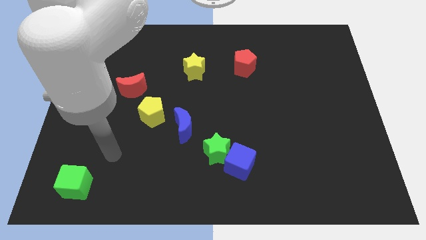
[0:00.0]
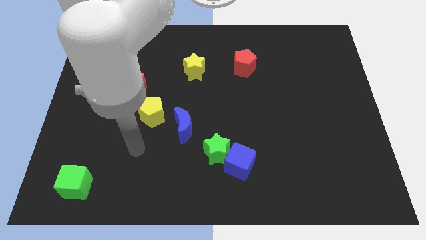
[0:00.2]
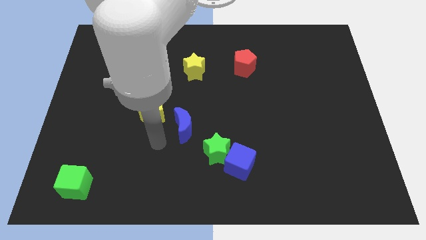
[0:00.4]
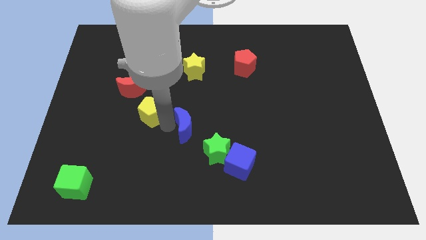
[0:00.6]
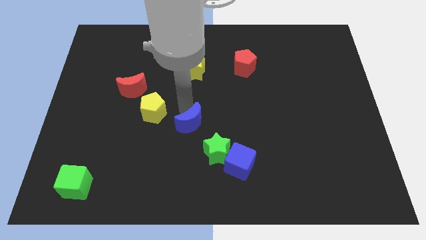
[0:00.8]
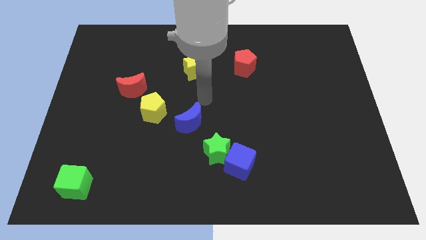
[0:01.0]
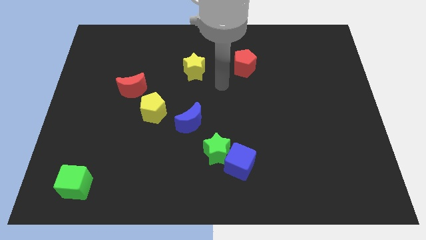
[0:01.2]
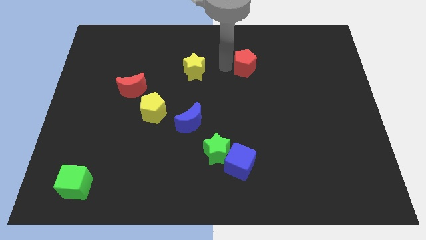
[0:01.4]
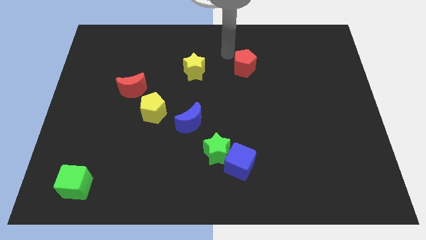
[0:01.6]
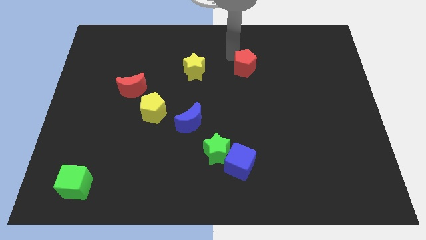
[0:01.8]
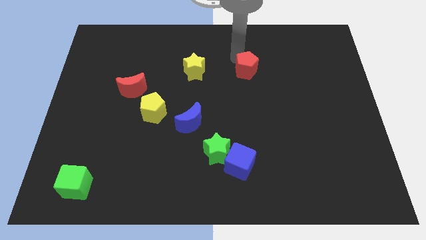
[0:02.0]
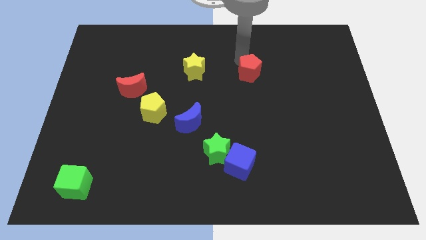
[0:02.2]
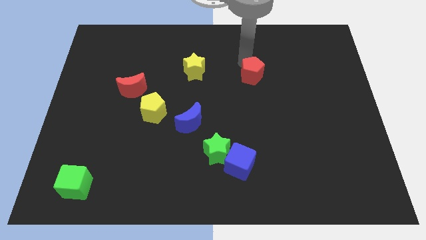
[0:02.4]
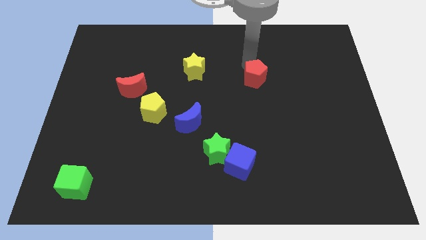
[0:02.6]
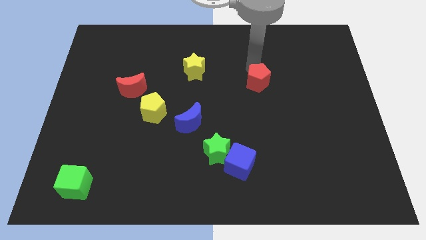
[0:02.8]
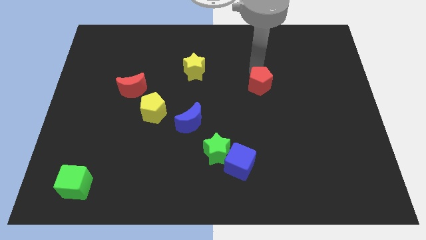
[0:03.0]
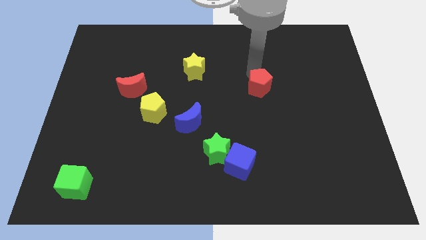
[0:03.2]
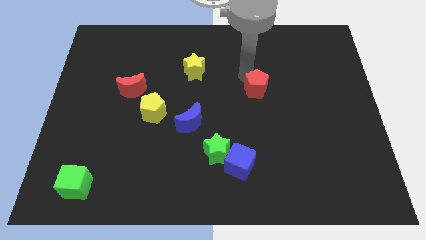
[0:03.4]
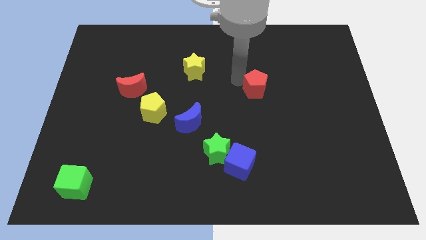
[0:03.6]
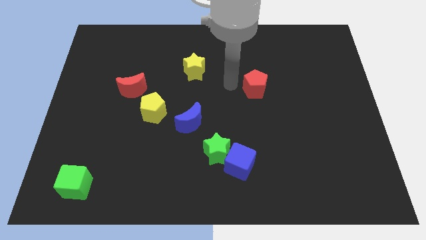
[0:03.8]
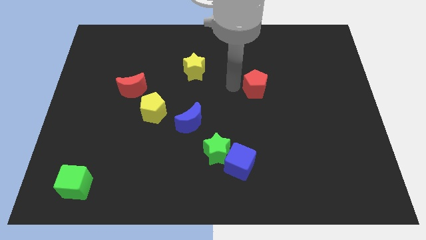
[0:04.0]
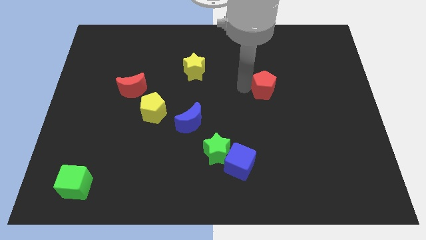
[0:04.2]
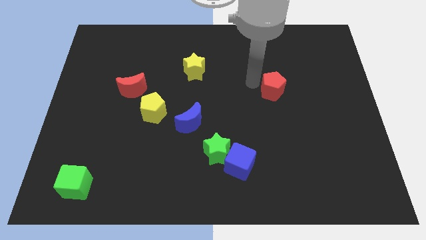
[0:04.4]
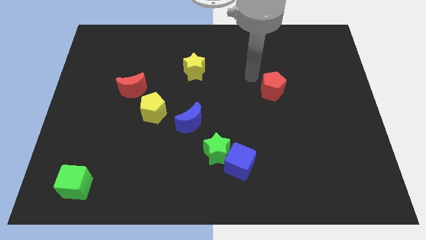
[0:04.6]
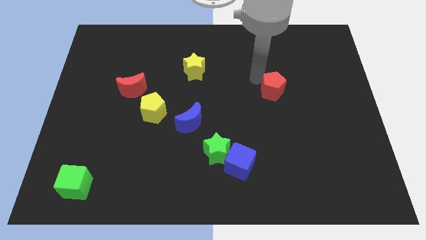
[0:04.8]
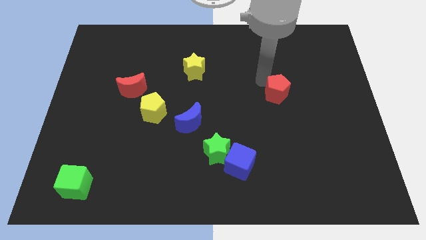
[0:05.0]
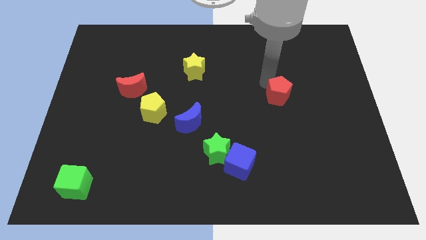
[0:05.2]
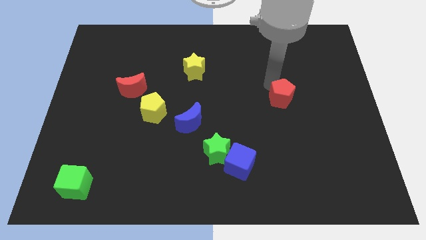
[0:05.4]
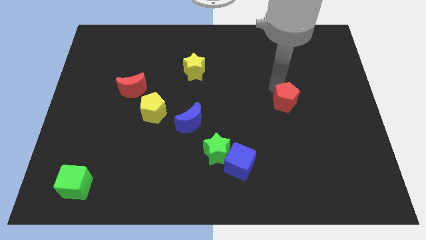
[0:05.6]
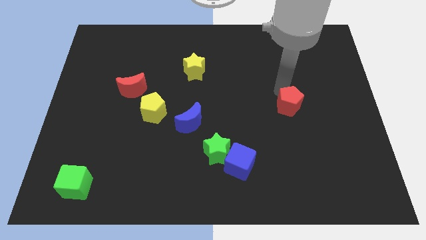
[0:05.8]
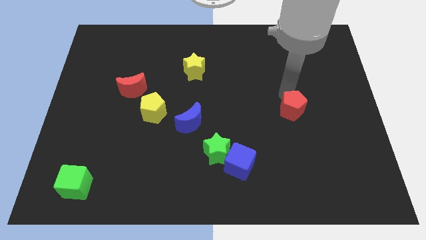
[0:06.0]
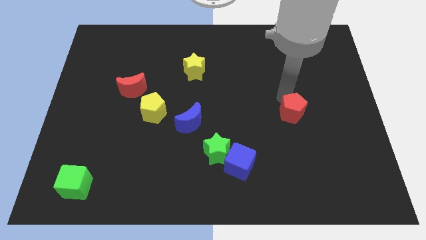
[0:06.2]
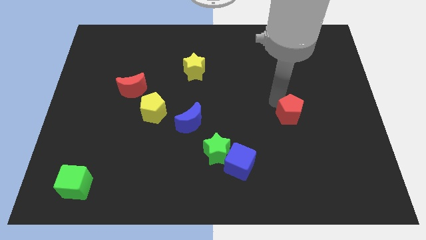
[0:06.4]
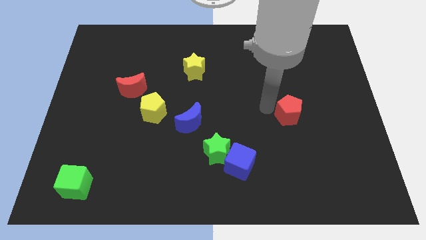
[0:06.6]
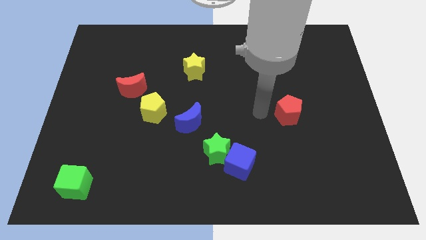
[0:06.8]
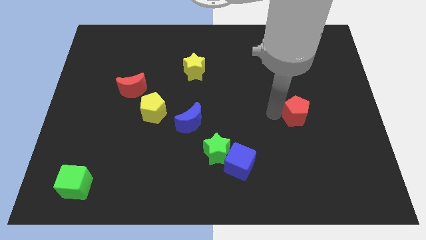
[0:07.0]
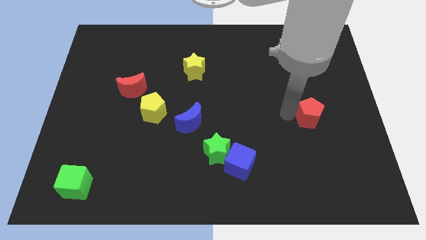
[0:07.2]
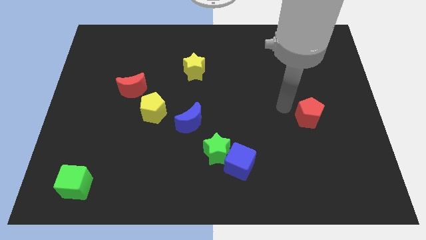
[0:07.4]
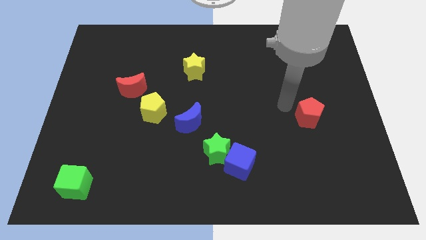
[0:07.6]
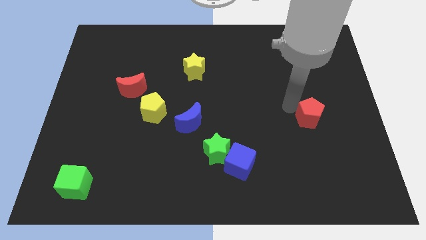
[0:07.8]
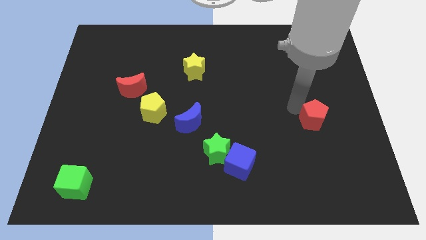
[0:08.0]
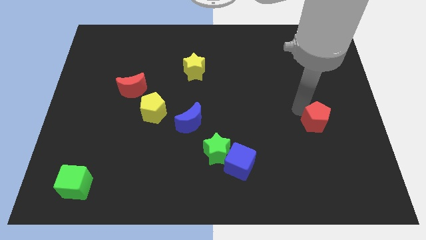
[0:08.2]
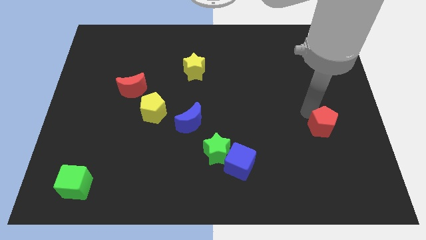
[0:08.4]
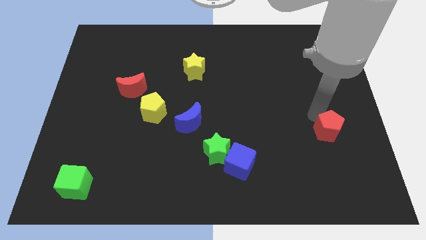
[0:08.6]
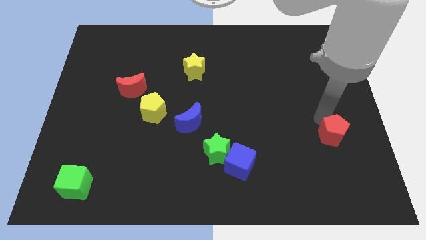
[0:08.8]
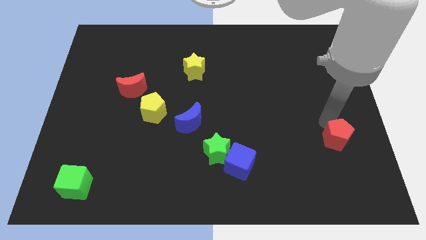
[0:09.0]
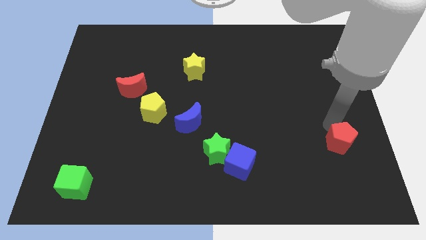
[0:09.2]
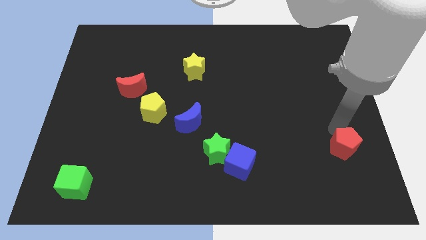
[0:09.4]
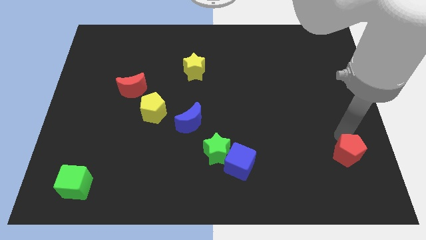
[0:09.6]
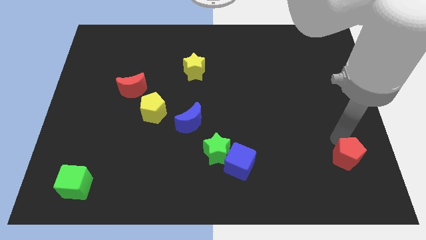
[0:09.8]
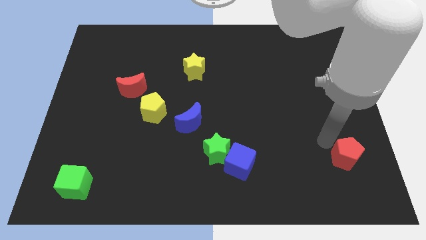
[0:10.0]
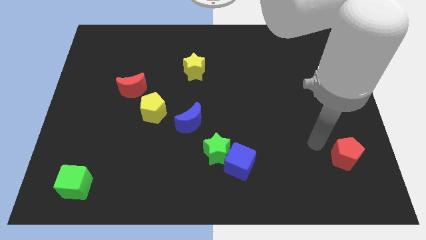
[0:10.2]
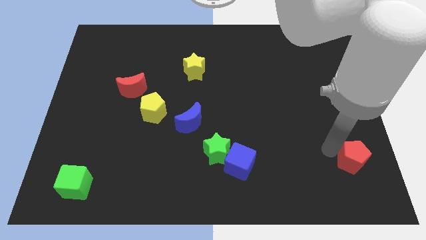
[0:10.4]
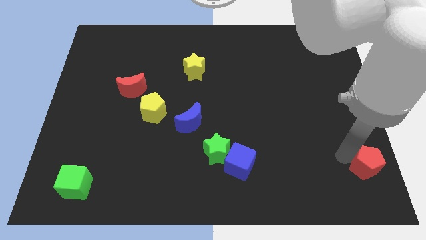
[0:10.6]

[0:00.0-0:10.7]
slide the red pentagon to the bottom right

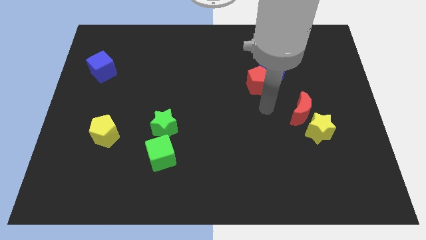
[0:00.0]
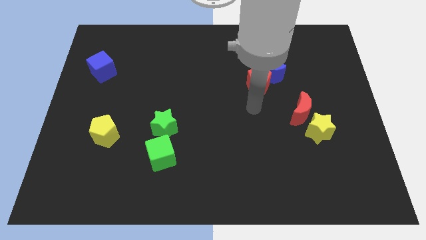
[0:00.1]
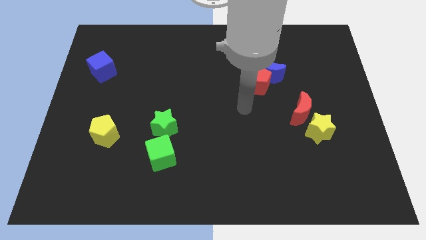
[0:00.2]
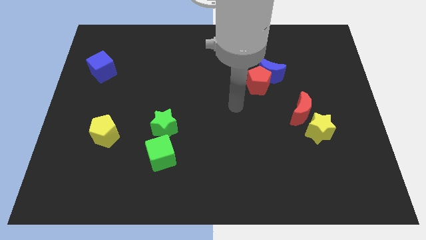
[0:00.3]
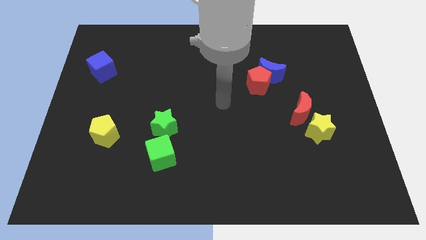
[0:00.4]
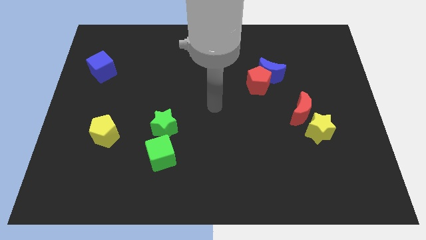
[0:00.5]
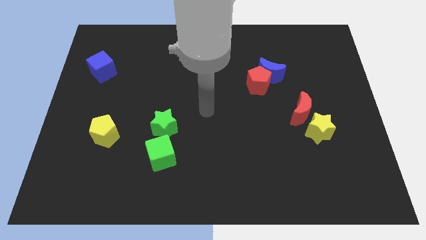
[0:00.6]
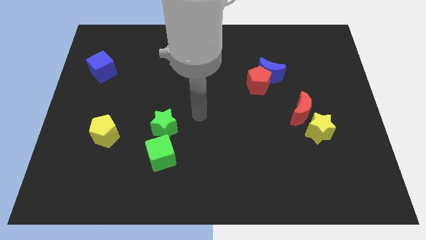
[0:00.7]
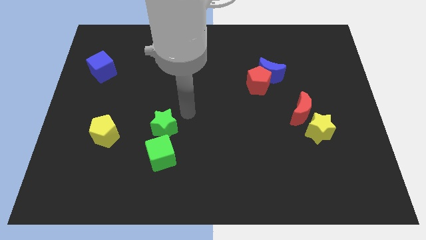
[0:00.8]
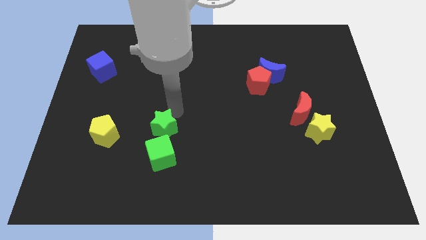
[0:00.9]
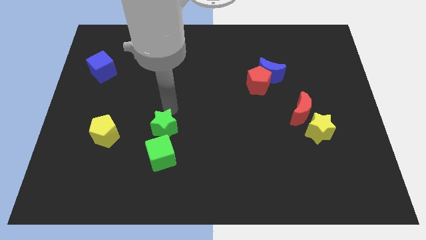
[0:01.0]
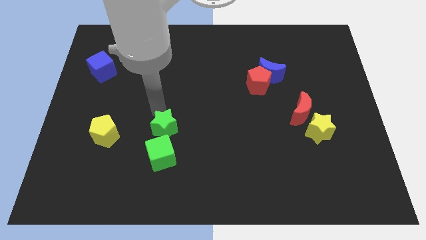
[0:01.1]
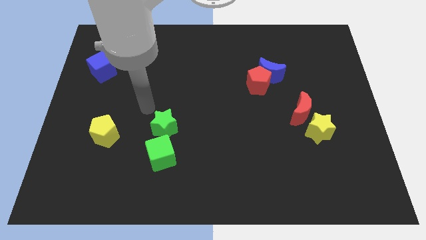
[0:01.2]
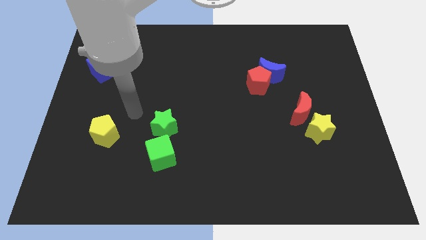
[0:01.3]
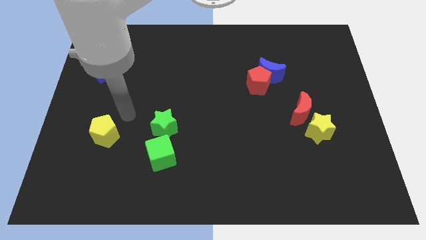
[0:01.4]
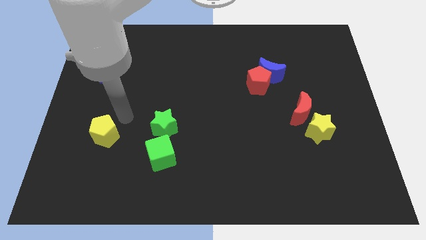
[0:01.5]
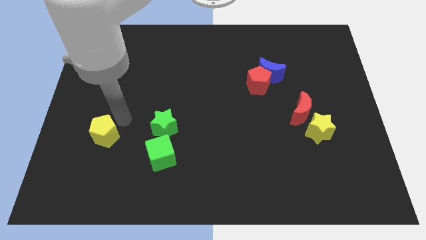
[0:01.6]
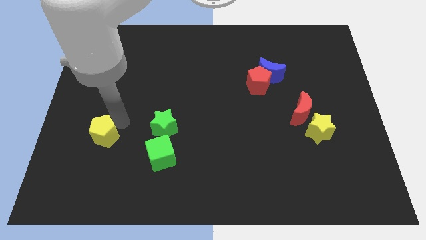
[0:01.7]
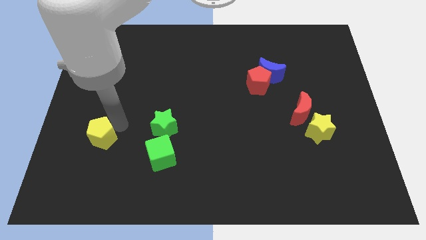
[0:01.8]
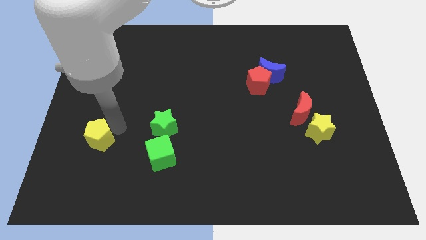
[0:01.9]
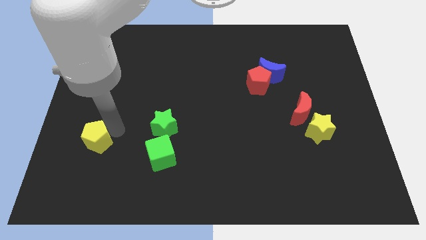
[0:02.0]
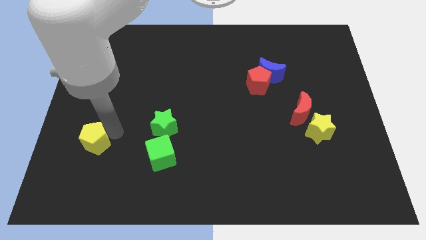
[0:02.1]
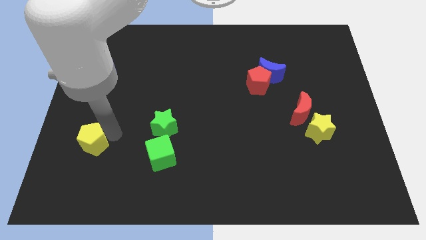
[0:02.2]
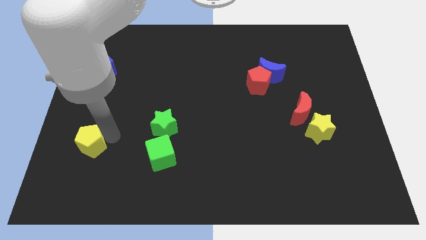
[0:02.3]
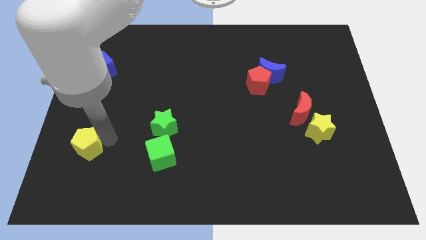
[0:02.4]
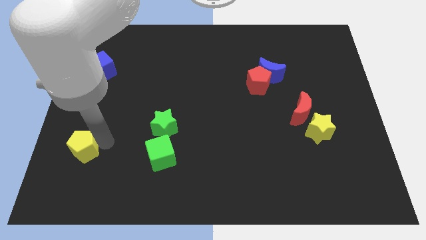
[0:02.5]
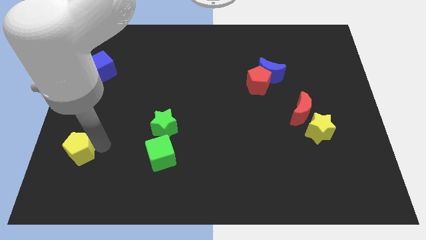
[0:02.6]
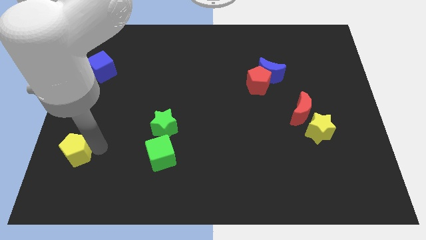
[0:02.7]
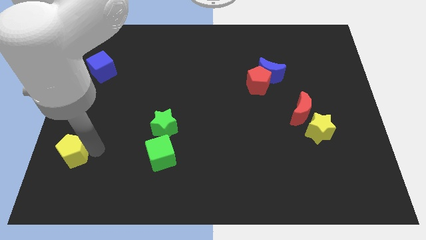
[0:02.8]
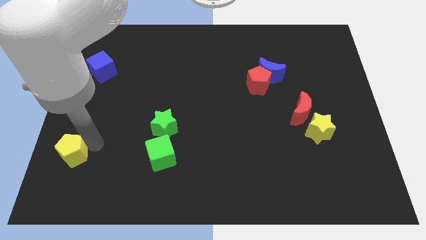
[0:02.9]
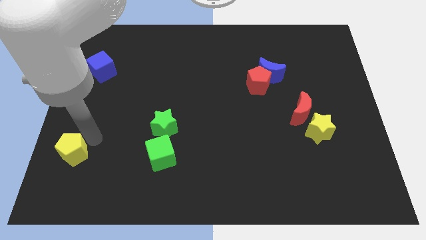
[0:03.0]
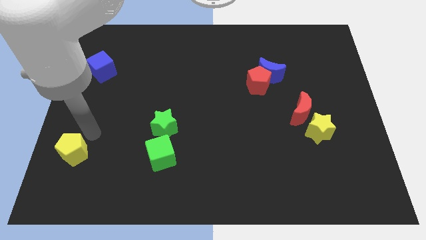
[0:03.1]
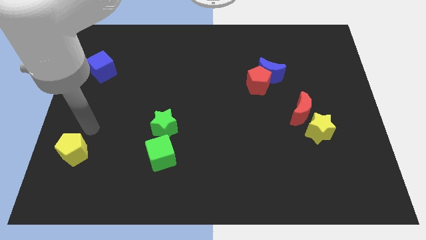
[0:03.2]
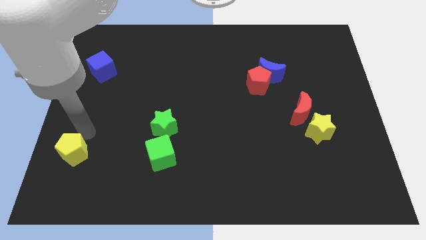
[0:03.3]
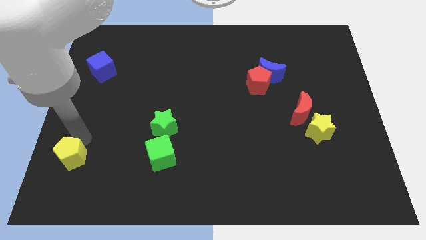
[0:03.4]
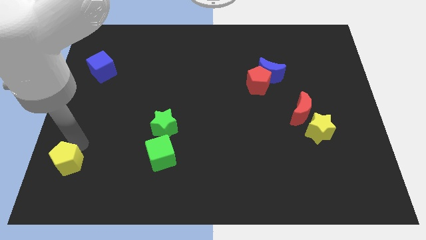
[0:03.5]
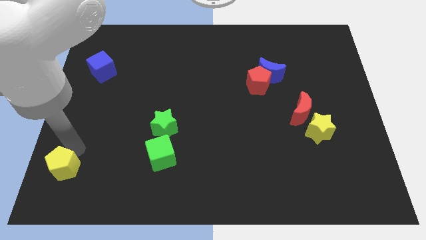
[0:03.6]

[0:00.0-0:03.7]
move the yellow pentagon to the bottom left of the board
